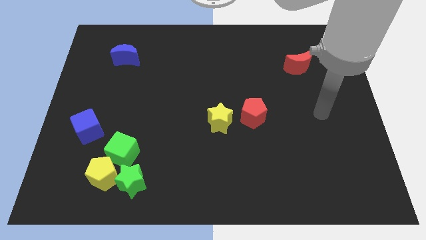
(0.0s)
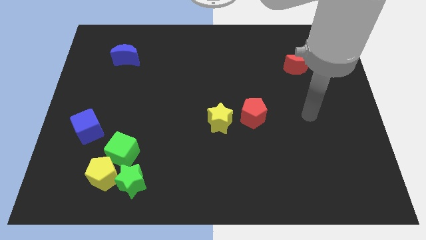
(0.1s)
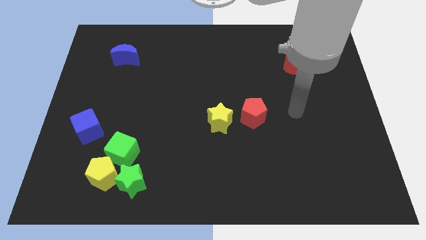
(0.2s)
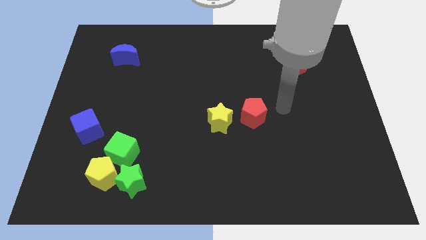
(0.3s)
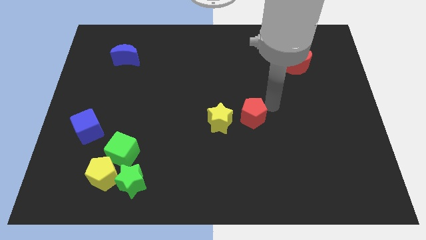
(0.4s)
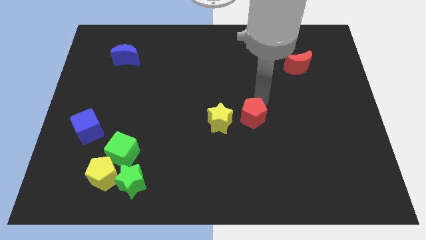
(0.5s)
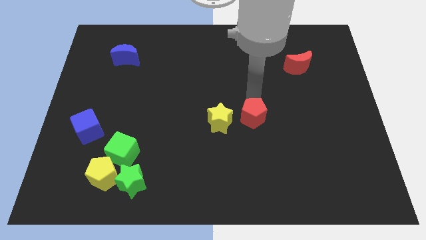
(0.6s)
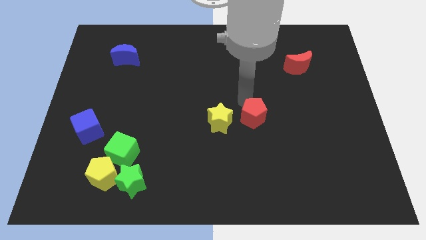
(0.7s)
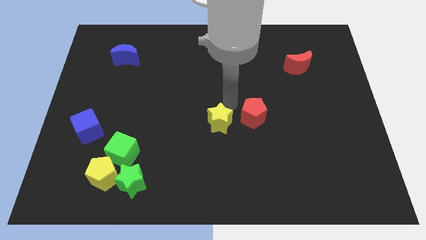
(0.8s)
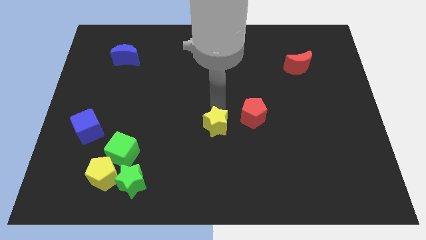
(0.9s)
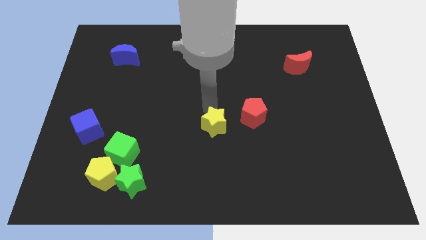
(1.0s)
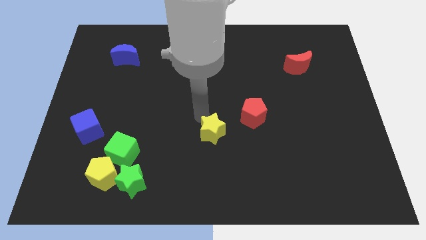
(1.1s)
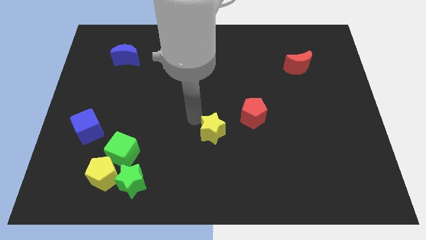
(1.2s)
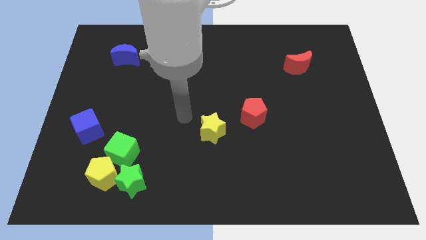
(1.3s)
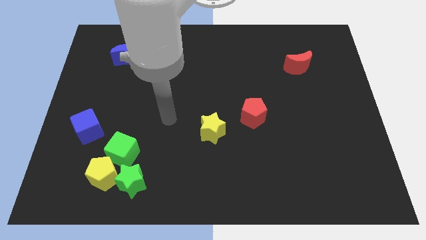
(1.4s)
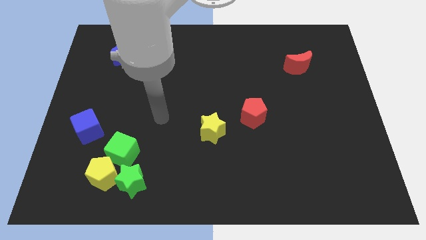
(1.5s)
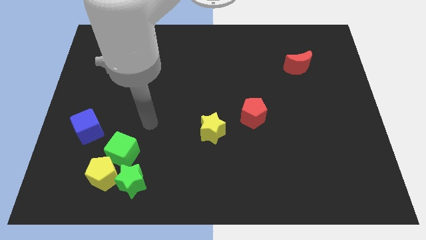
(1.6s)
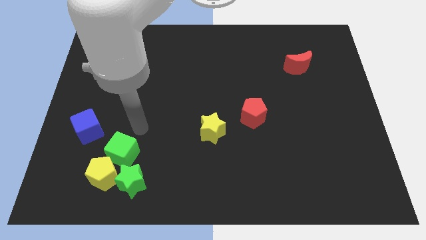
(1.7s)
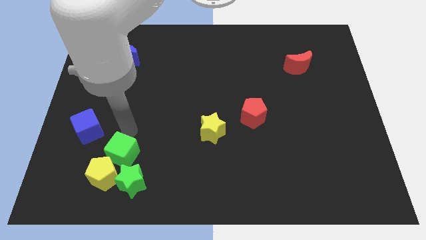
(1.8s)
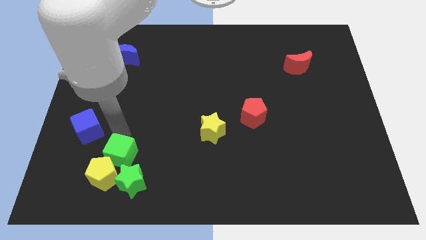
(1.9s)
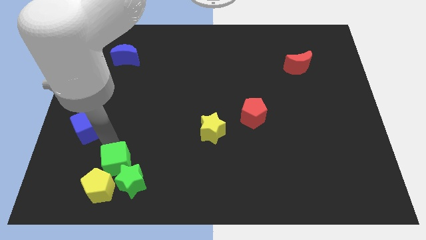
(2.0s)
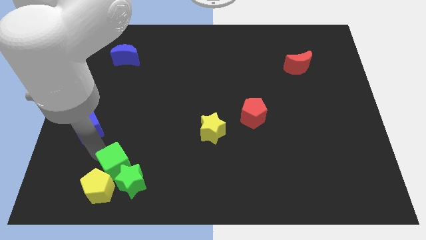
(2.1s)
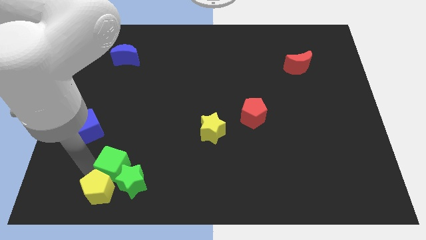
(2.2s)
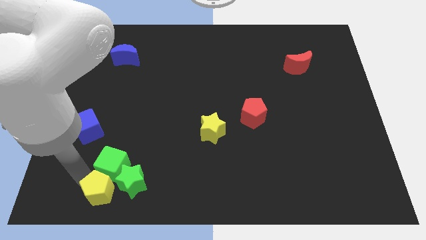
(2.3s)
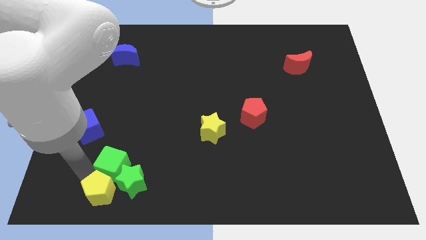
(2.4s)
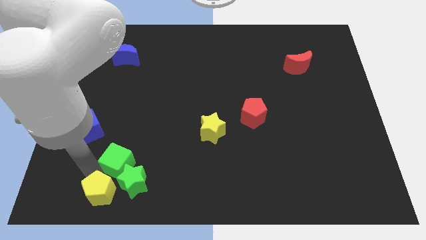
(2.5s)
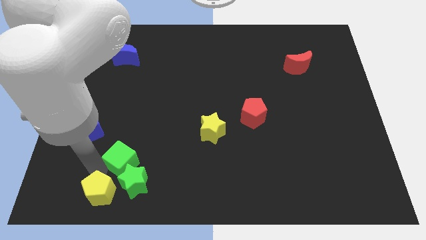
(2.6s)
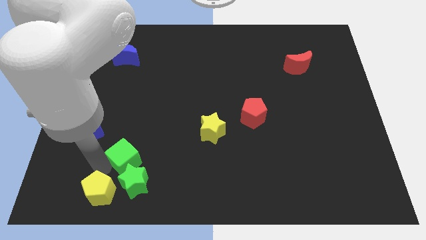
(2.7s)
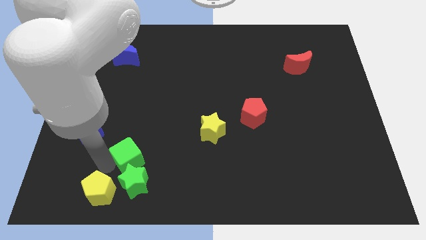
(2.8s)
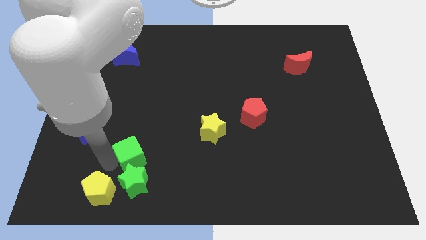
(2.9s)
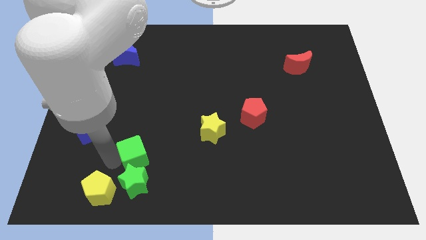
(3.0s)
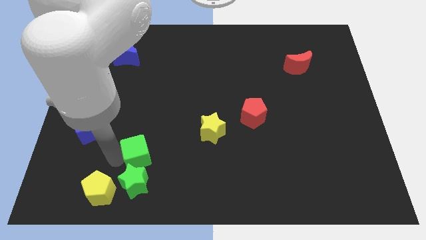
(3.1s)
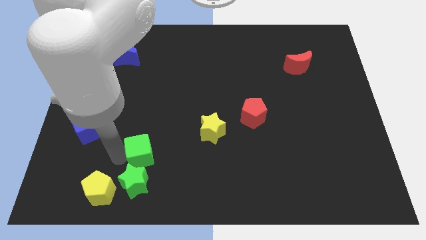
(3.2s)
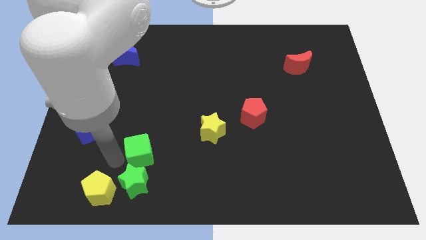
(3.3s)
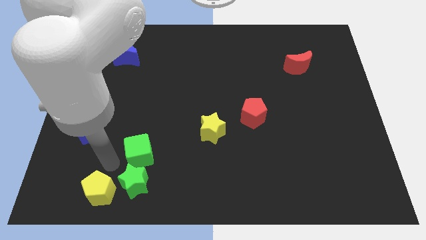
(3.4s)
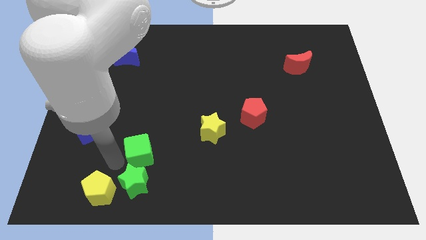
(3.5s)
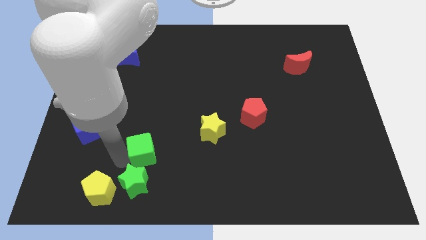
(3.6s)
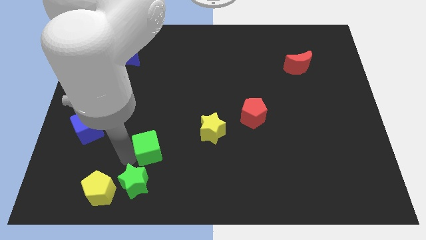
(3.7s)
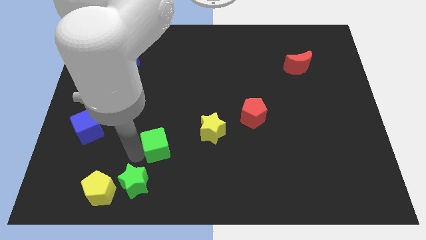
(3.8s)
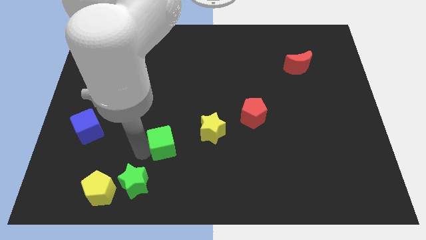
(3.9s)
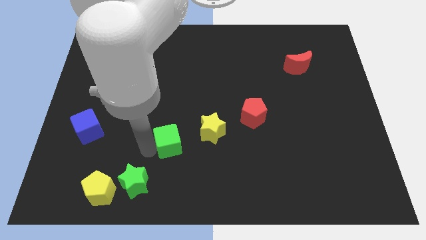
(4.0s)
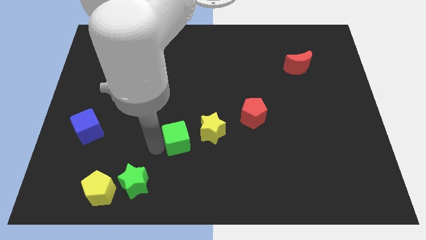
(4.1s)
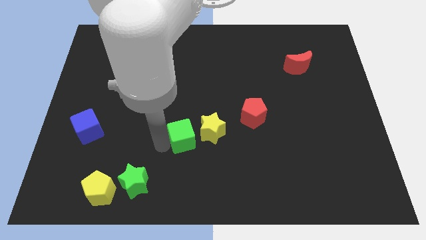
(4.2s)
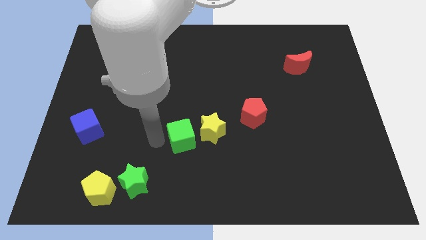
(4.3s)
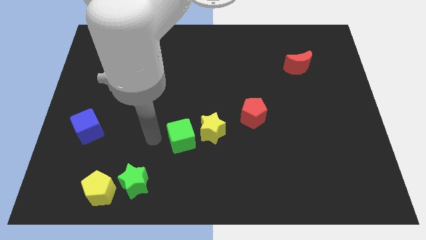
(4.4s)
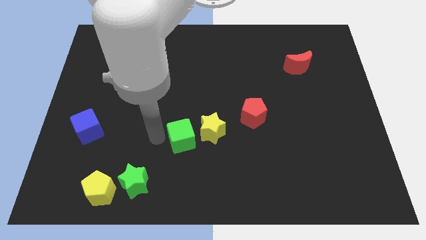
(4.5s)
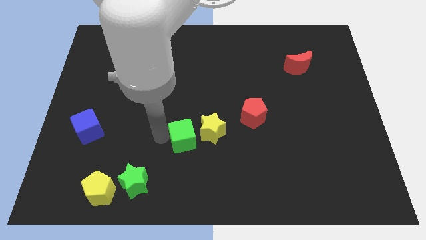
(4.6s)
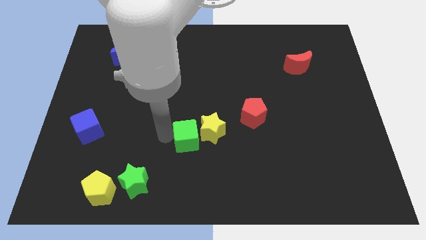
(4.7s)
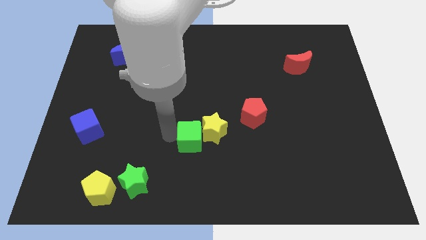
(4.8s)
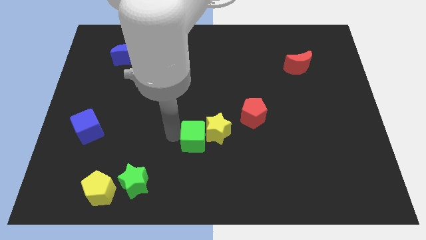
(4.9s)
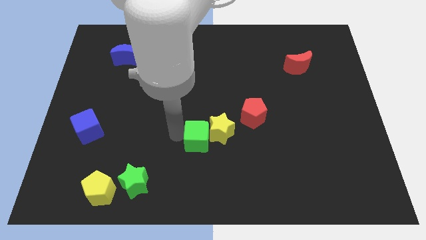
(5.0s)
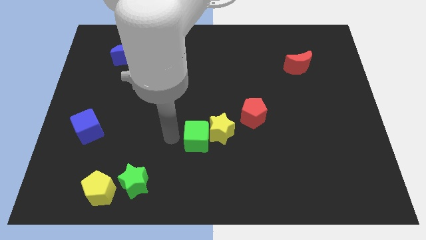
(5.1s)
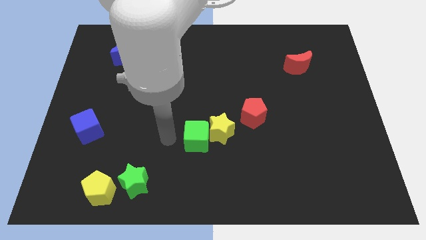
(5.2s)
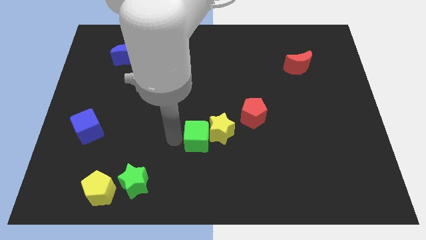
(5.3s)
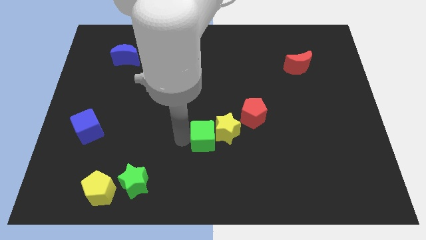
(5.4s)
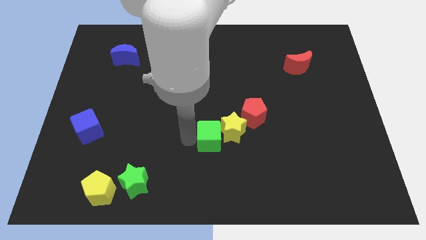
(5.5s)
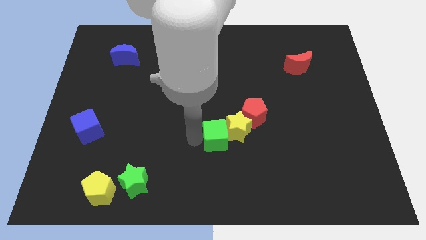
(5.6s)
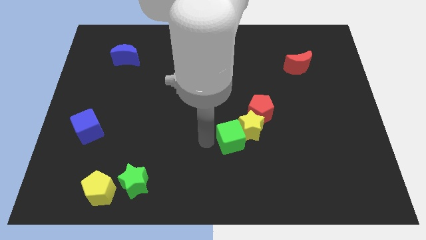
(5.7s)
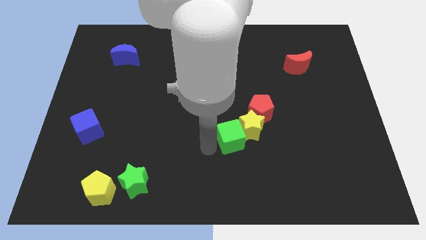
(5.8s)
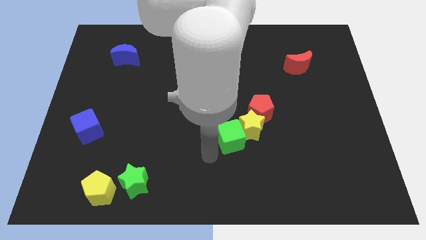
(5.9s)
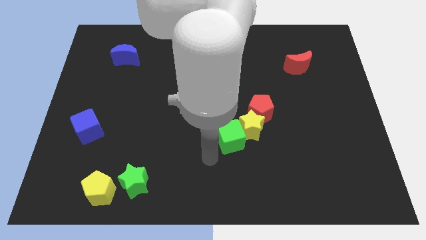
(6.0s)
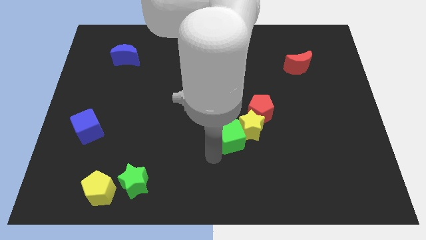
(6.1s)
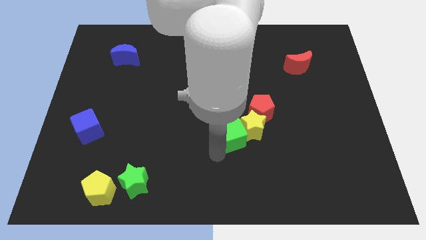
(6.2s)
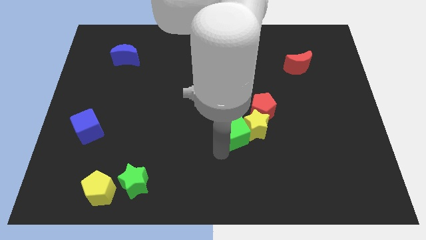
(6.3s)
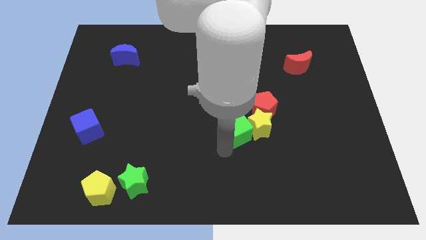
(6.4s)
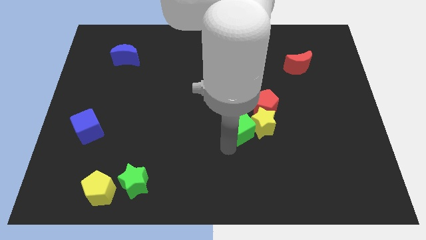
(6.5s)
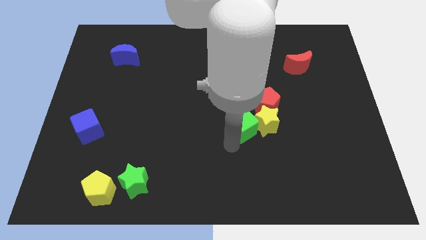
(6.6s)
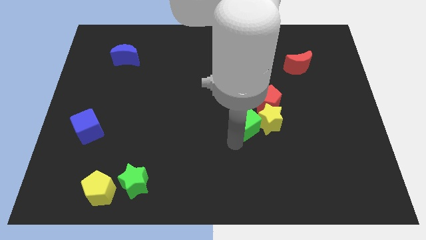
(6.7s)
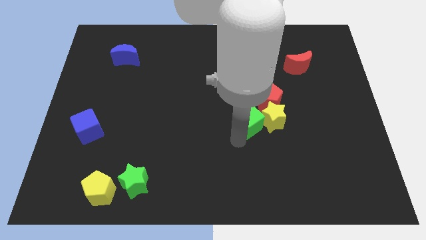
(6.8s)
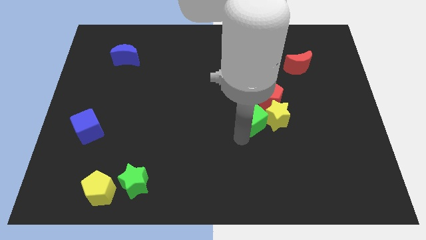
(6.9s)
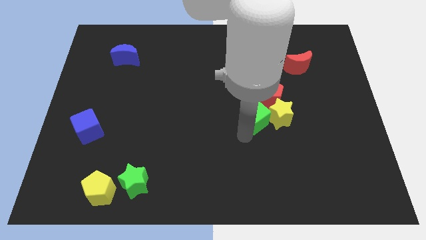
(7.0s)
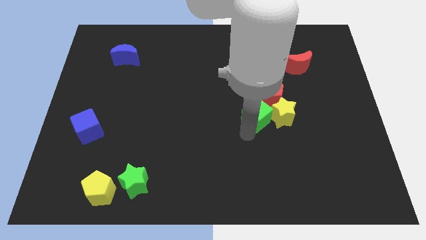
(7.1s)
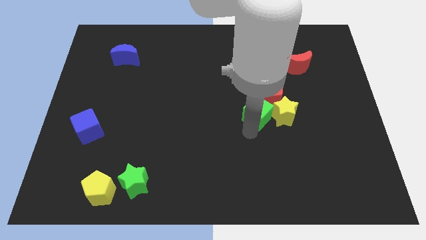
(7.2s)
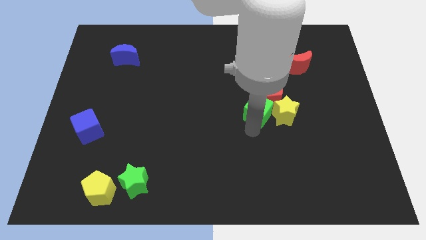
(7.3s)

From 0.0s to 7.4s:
put the green cube close to the red pentagon
